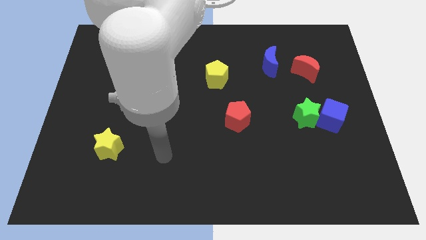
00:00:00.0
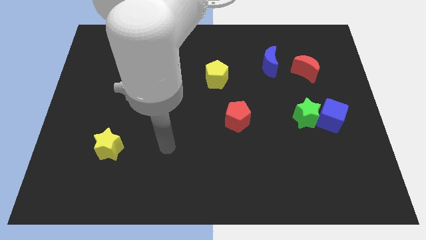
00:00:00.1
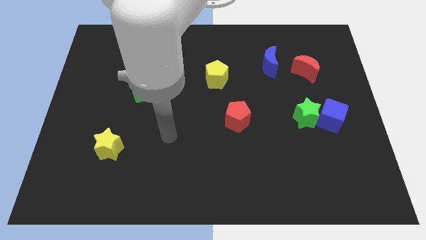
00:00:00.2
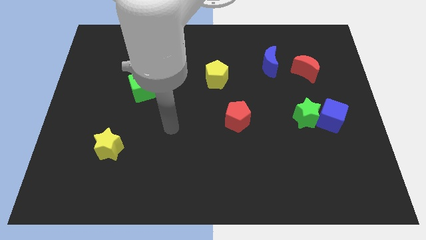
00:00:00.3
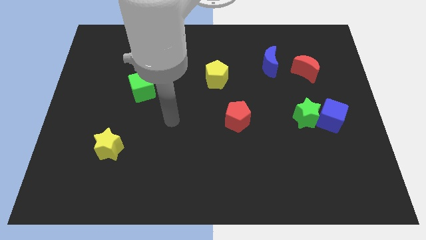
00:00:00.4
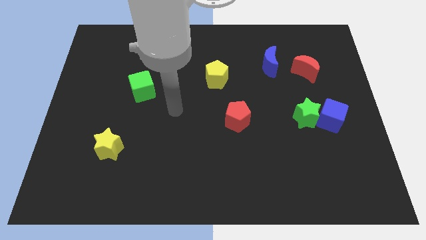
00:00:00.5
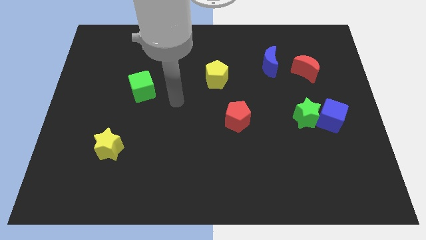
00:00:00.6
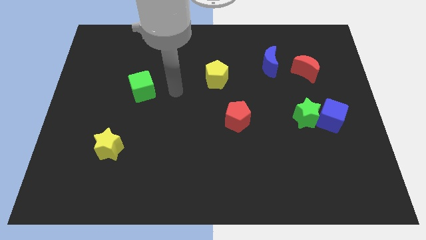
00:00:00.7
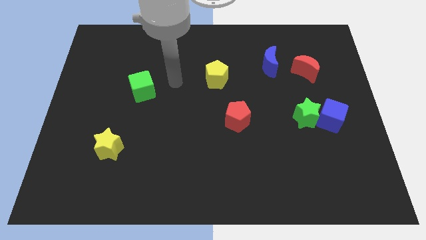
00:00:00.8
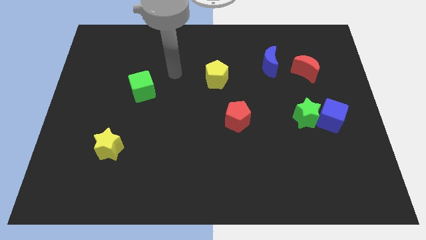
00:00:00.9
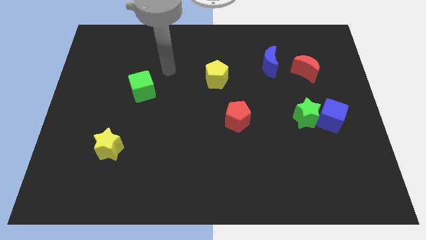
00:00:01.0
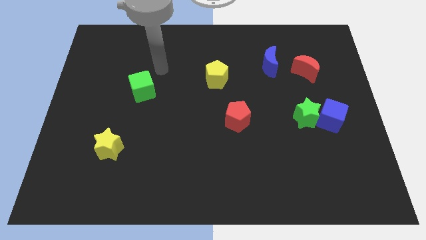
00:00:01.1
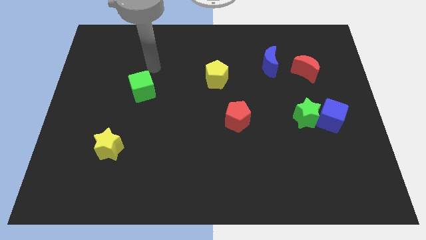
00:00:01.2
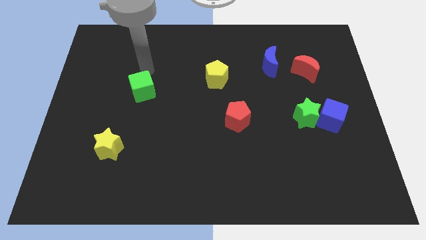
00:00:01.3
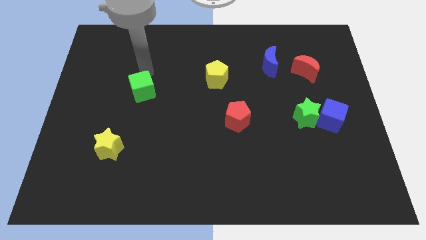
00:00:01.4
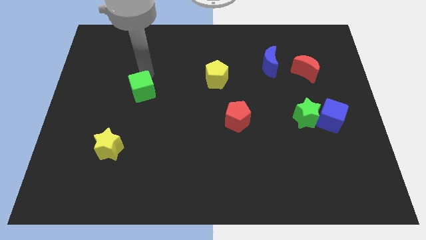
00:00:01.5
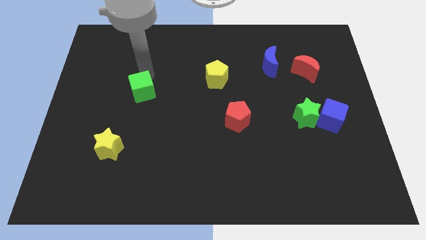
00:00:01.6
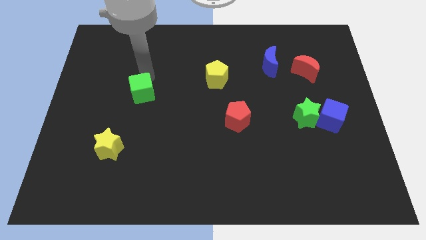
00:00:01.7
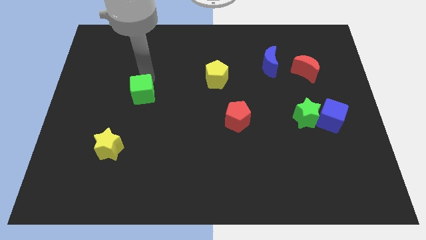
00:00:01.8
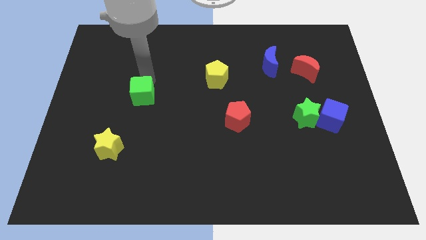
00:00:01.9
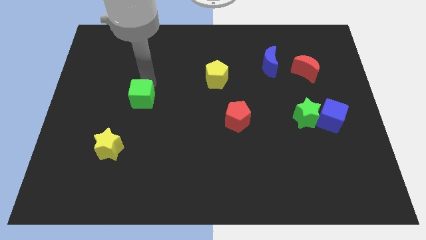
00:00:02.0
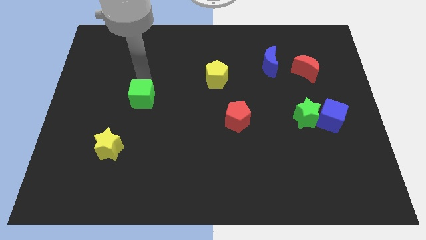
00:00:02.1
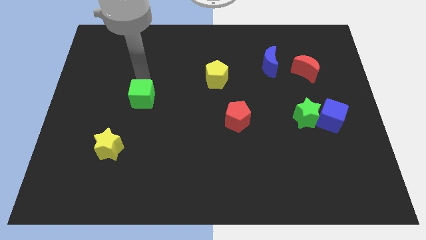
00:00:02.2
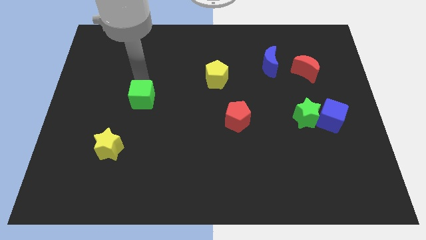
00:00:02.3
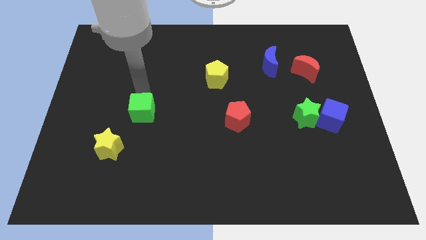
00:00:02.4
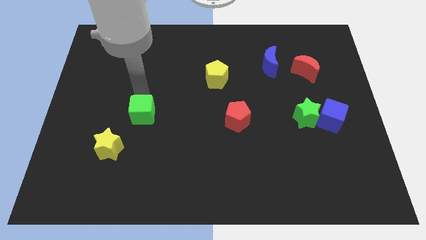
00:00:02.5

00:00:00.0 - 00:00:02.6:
push the green cube down somewhat

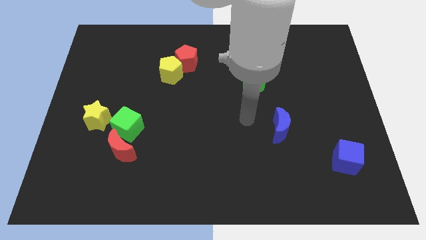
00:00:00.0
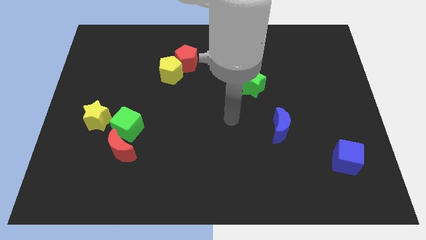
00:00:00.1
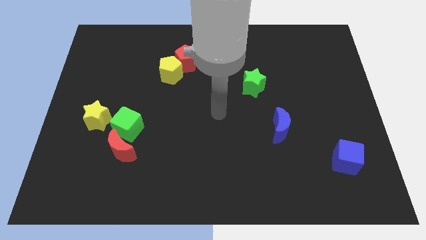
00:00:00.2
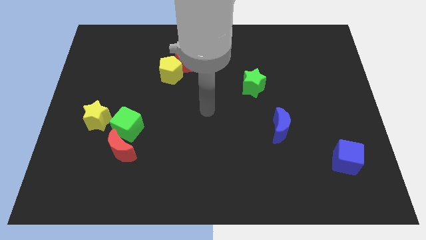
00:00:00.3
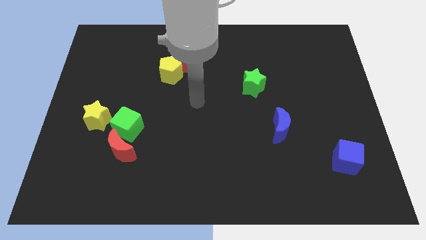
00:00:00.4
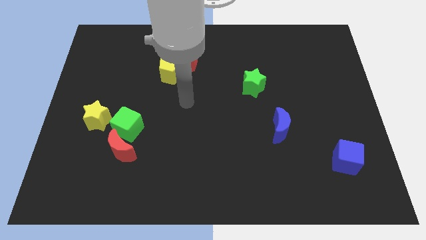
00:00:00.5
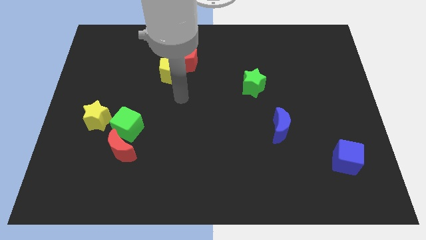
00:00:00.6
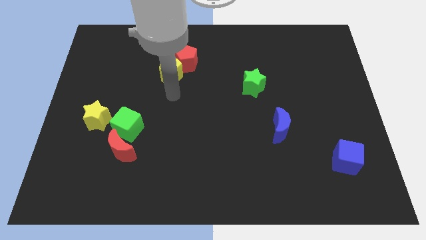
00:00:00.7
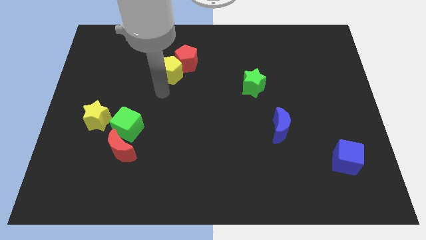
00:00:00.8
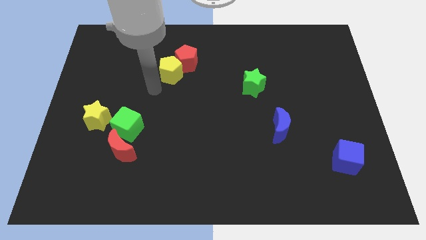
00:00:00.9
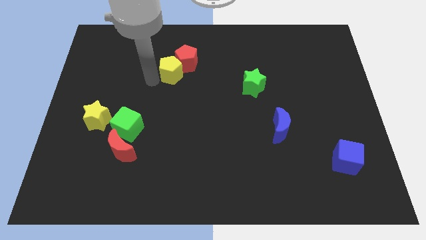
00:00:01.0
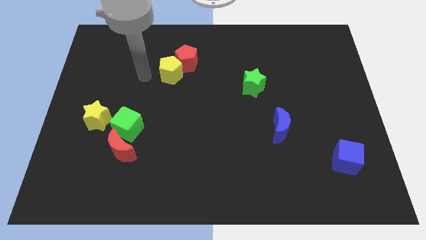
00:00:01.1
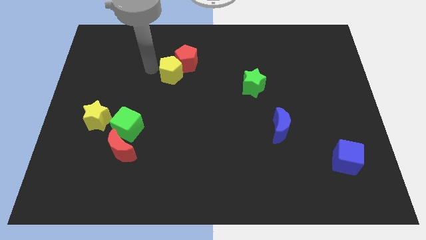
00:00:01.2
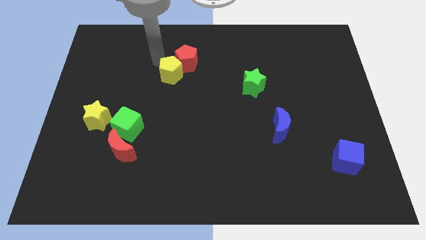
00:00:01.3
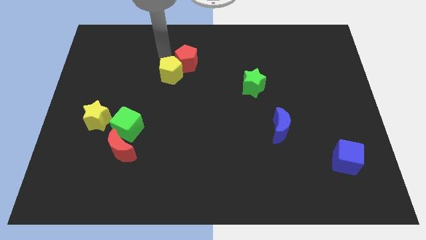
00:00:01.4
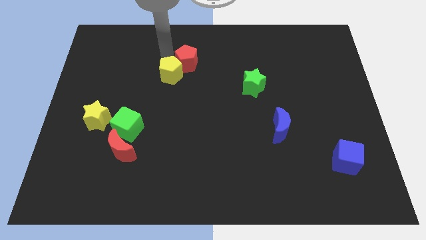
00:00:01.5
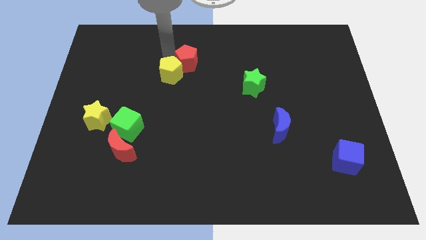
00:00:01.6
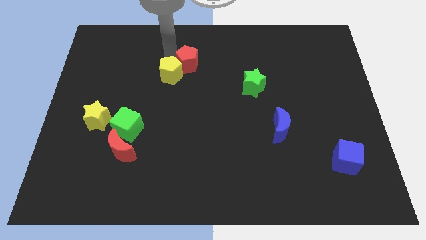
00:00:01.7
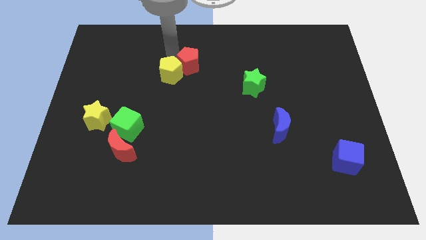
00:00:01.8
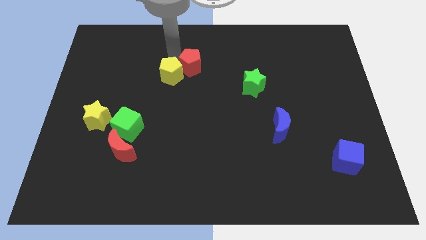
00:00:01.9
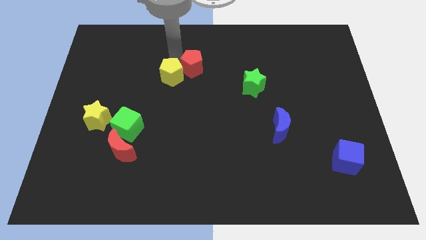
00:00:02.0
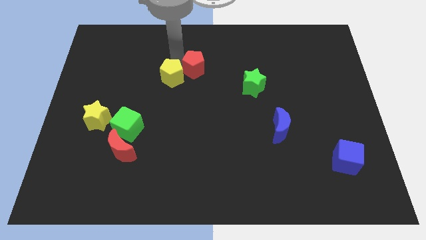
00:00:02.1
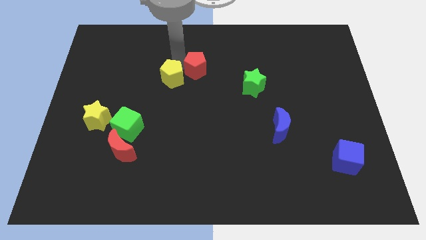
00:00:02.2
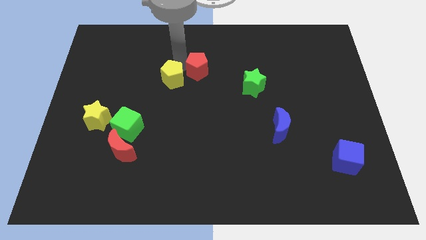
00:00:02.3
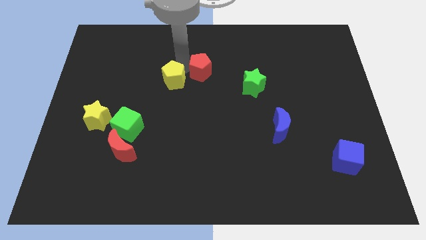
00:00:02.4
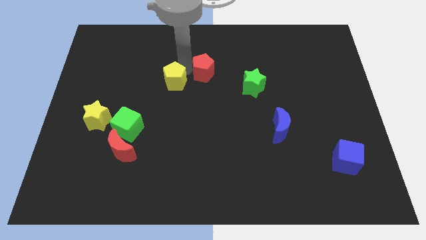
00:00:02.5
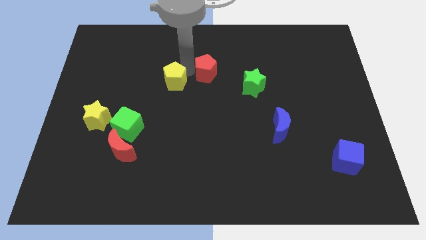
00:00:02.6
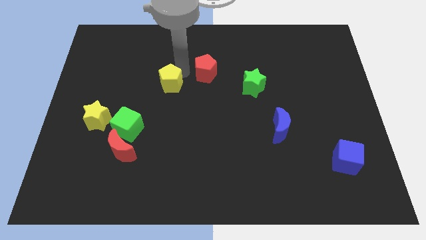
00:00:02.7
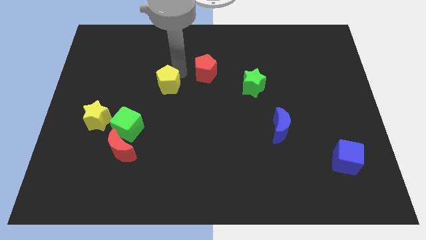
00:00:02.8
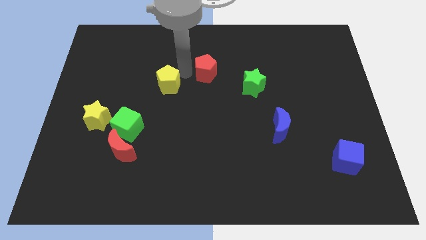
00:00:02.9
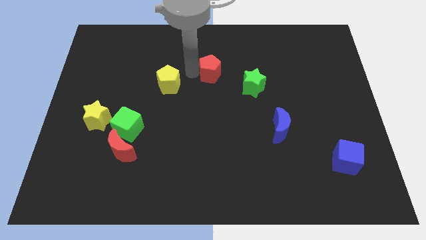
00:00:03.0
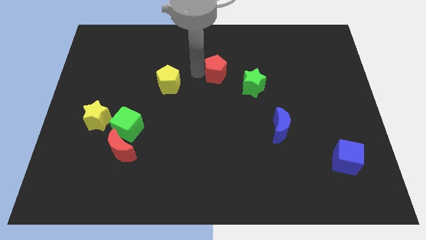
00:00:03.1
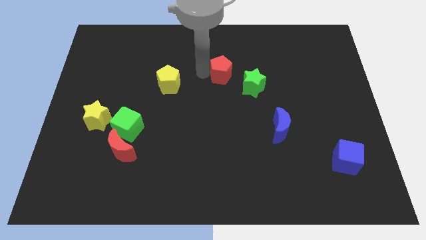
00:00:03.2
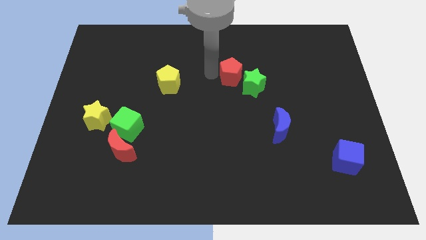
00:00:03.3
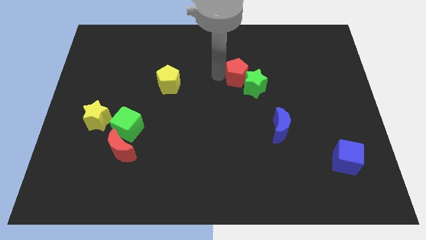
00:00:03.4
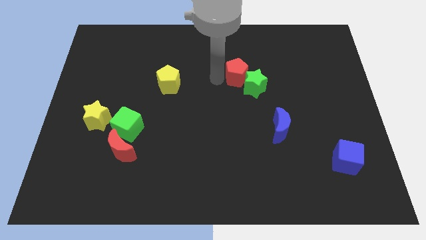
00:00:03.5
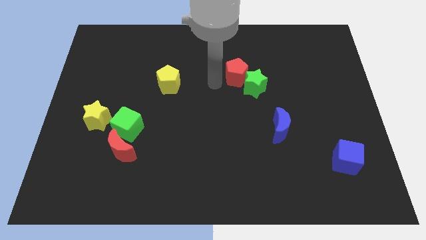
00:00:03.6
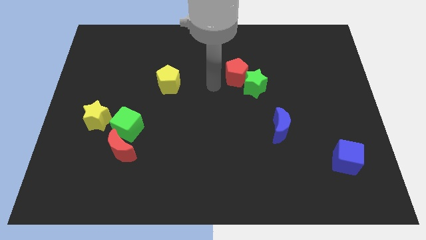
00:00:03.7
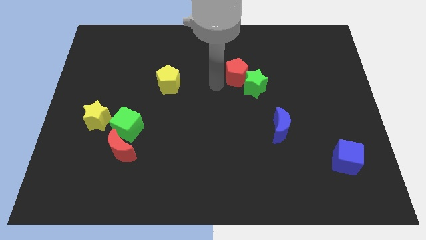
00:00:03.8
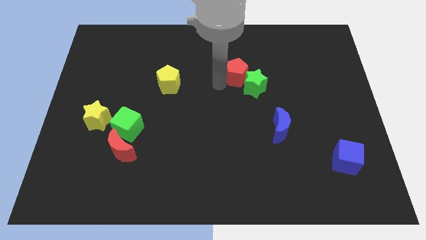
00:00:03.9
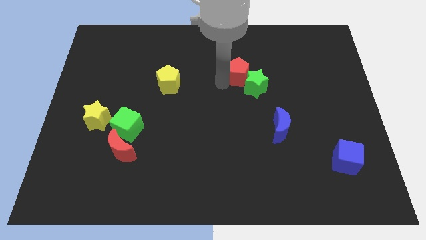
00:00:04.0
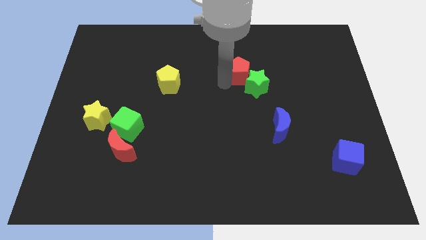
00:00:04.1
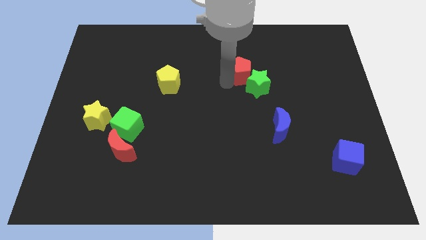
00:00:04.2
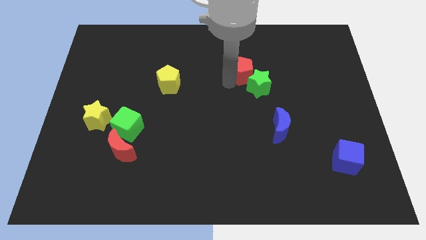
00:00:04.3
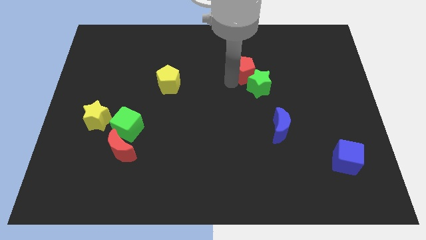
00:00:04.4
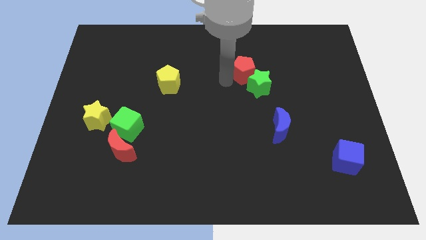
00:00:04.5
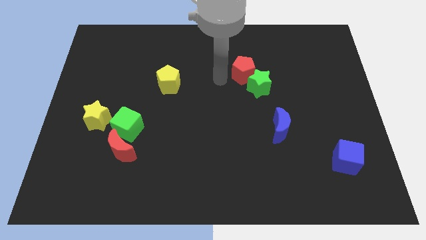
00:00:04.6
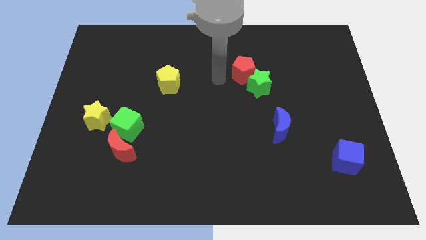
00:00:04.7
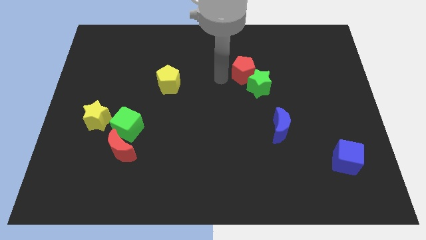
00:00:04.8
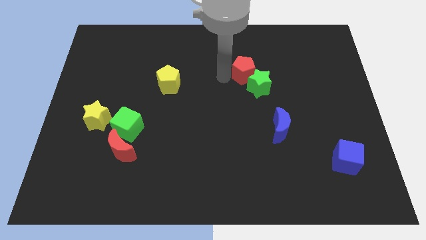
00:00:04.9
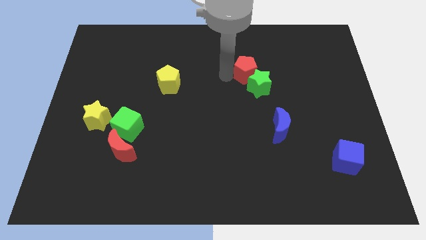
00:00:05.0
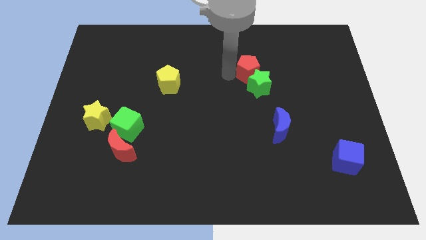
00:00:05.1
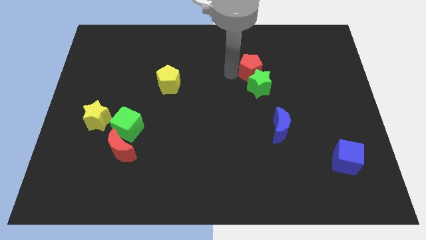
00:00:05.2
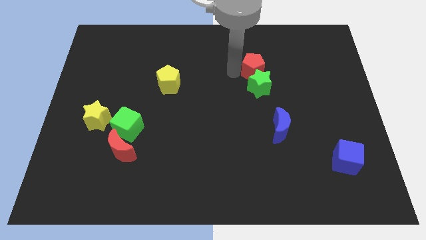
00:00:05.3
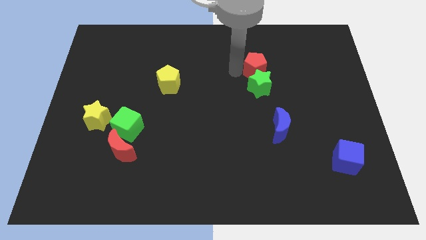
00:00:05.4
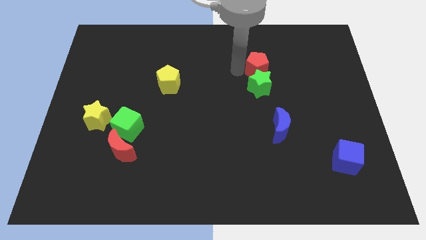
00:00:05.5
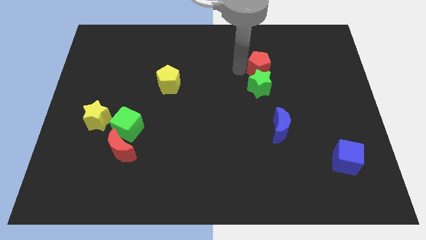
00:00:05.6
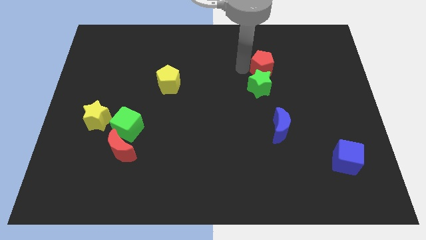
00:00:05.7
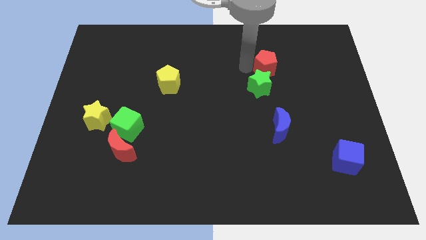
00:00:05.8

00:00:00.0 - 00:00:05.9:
move the red pentagon right

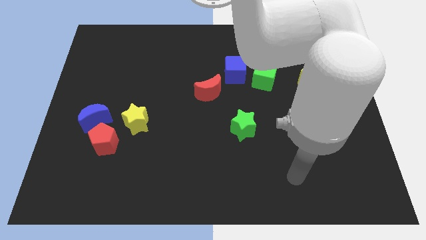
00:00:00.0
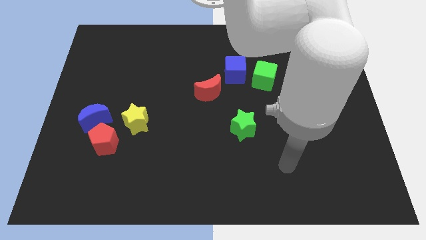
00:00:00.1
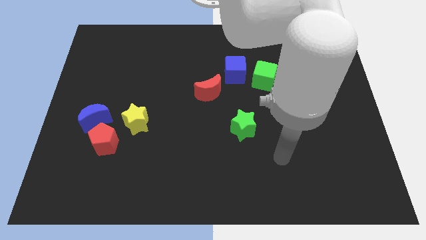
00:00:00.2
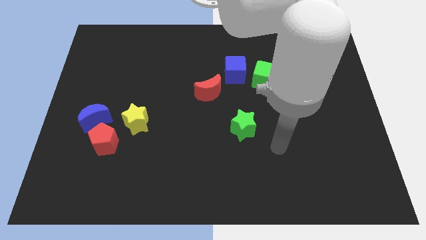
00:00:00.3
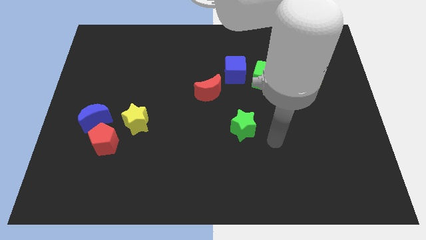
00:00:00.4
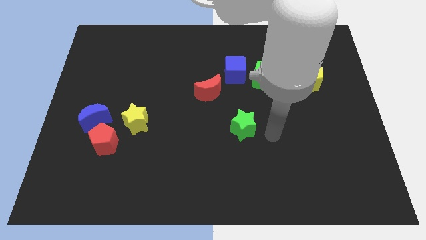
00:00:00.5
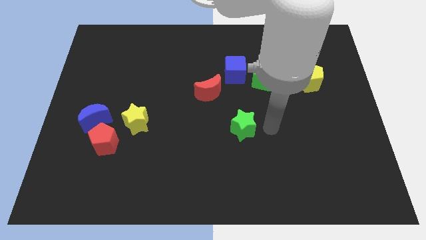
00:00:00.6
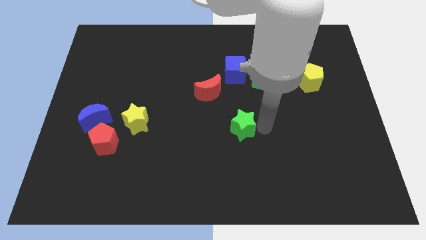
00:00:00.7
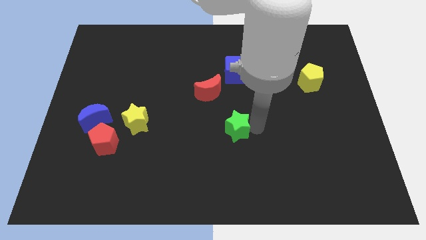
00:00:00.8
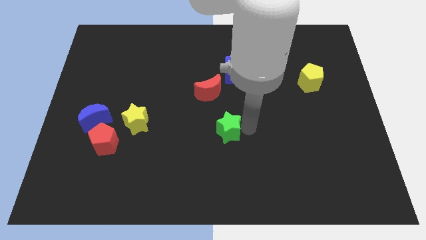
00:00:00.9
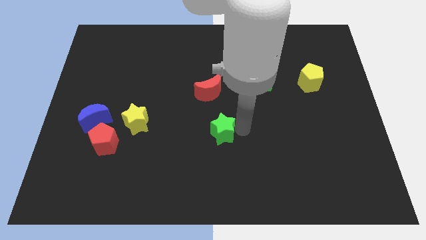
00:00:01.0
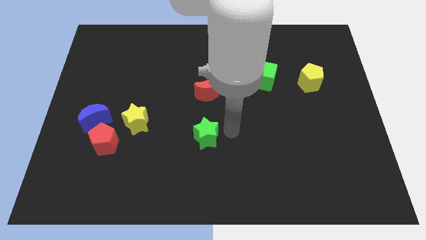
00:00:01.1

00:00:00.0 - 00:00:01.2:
slide the green star slightly left
